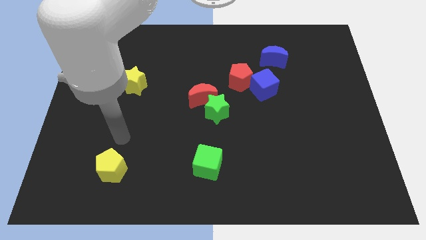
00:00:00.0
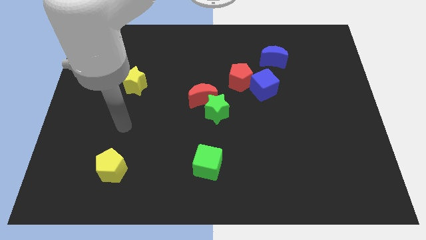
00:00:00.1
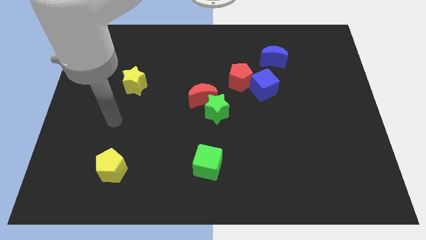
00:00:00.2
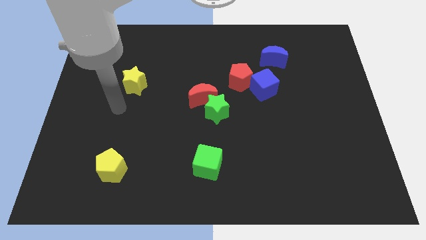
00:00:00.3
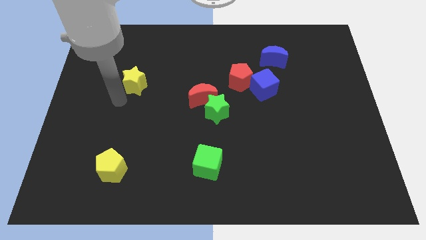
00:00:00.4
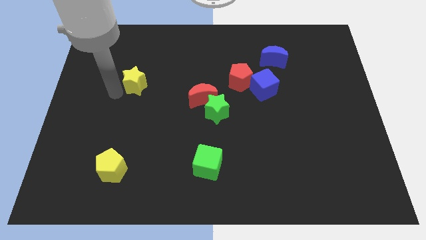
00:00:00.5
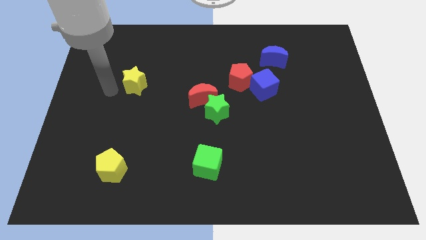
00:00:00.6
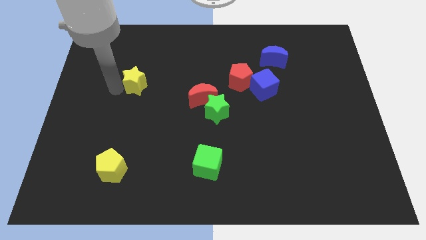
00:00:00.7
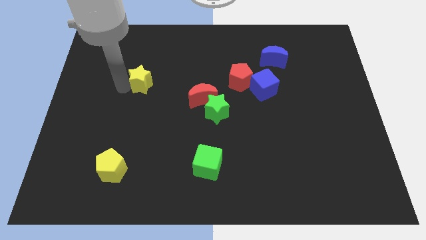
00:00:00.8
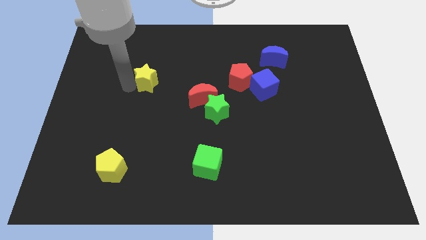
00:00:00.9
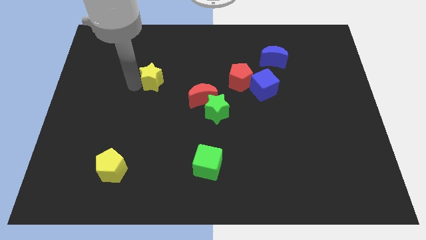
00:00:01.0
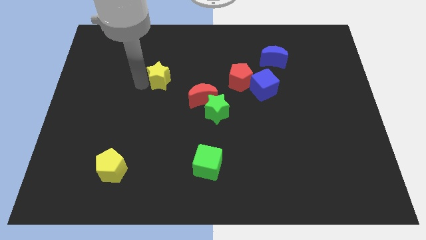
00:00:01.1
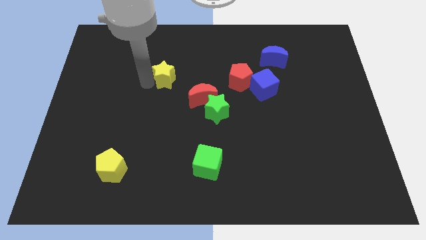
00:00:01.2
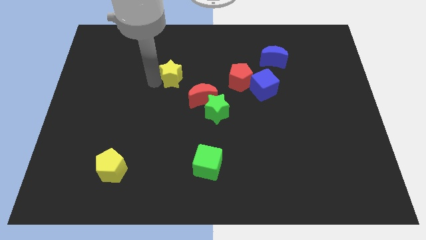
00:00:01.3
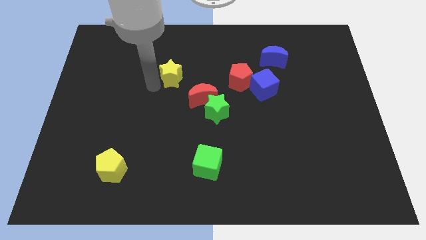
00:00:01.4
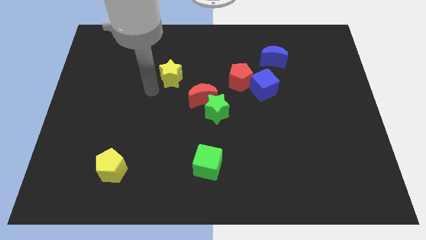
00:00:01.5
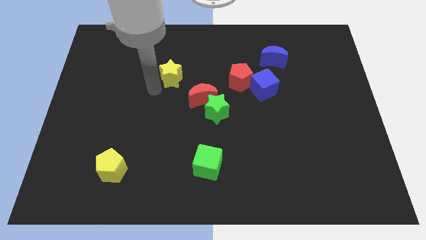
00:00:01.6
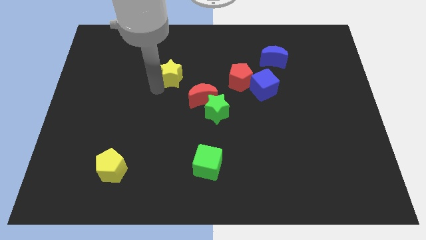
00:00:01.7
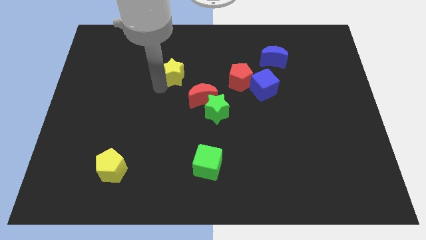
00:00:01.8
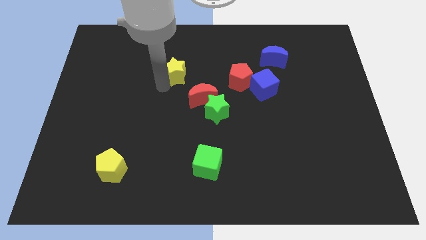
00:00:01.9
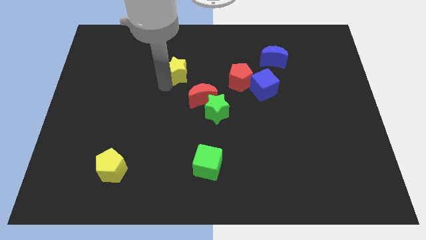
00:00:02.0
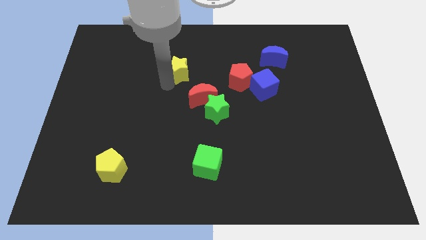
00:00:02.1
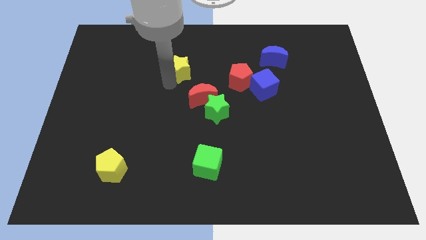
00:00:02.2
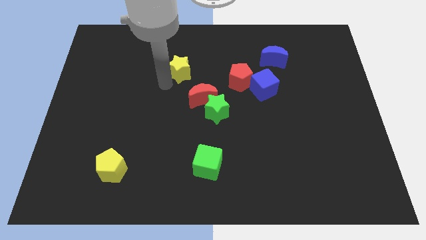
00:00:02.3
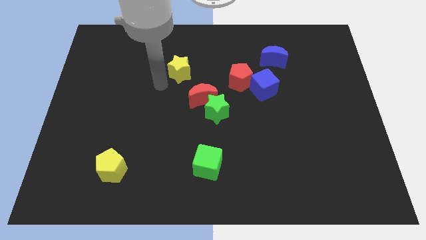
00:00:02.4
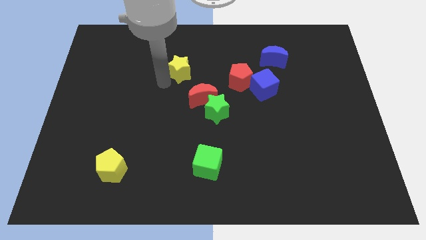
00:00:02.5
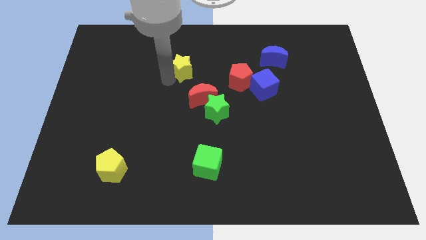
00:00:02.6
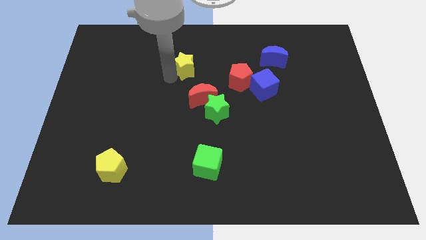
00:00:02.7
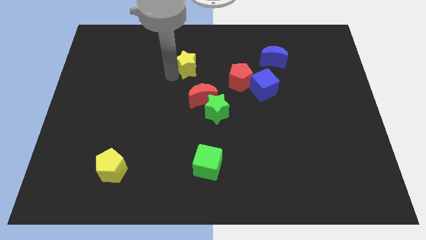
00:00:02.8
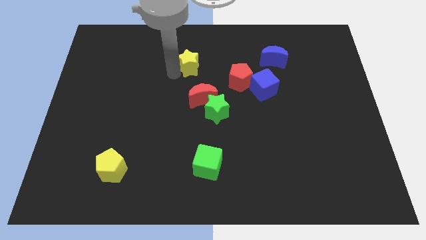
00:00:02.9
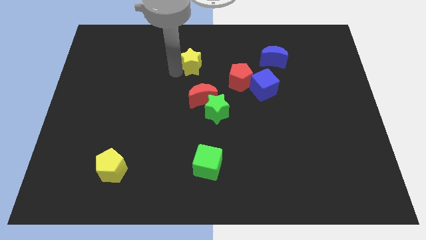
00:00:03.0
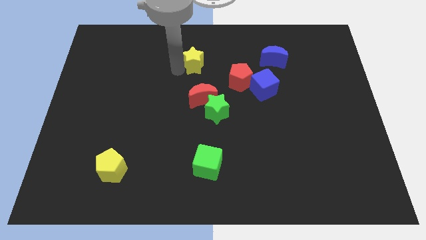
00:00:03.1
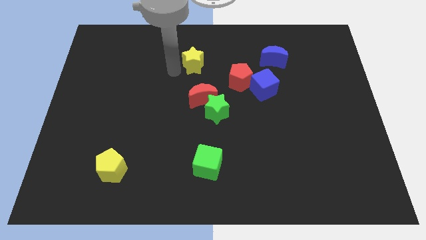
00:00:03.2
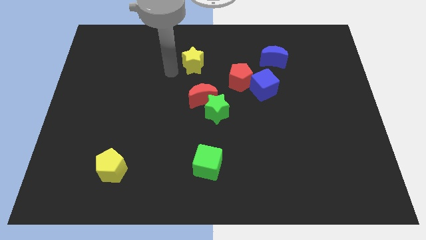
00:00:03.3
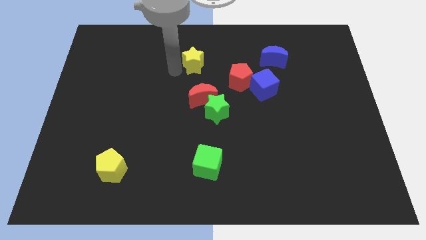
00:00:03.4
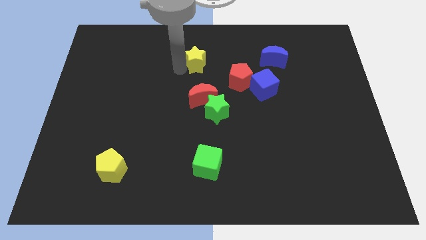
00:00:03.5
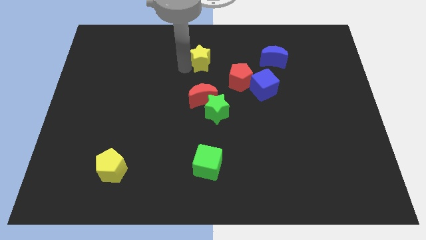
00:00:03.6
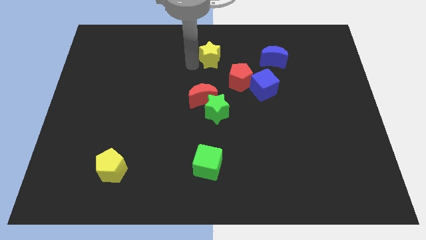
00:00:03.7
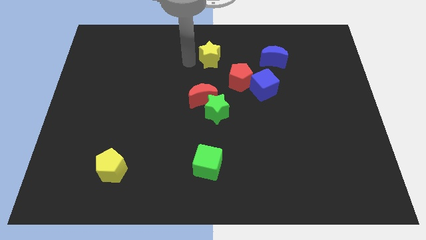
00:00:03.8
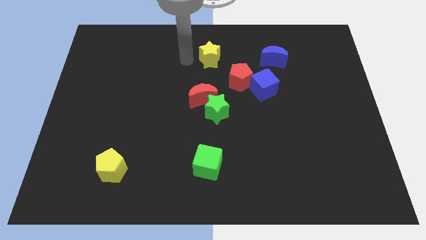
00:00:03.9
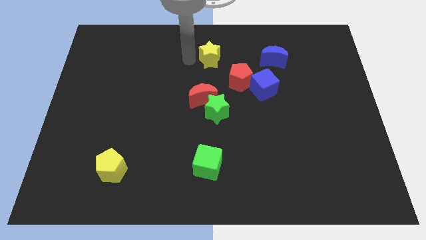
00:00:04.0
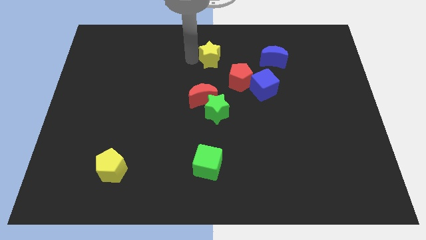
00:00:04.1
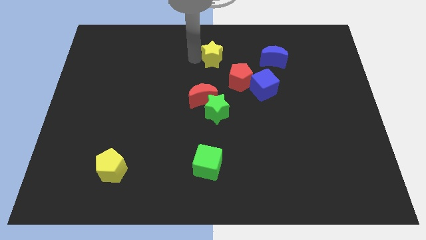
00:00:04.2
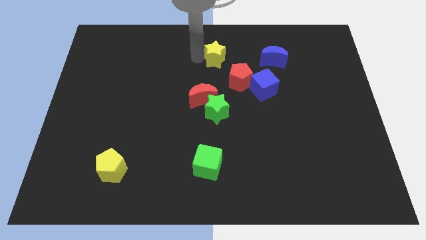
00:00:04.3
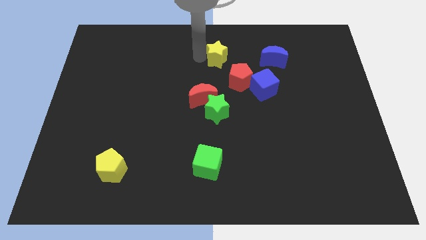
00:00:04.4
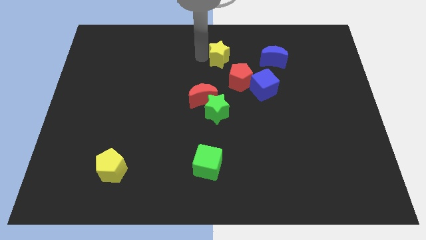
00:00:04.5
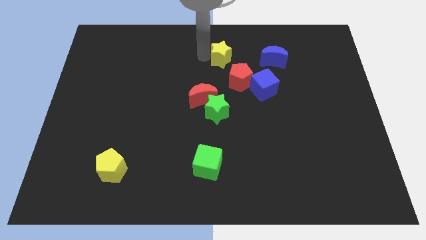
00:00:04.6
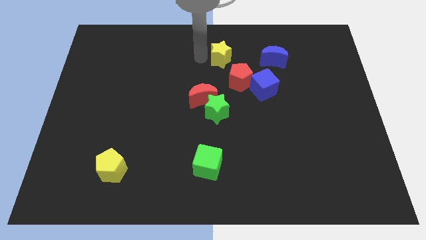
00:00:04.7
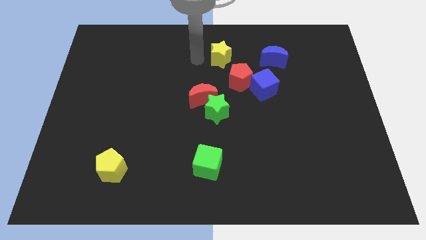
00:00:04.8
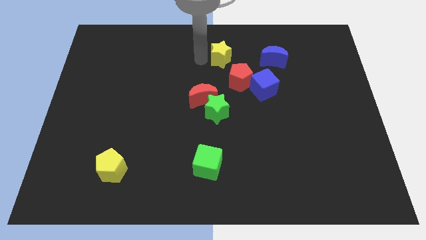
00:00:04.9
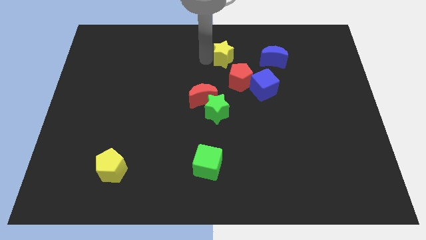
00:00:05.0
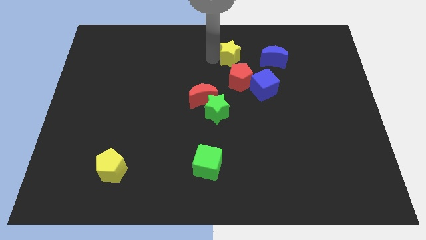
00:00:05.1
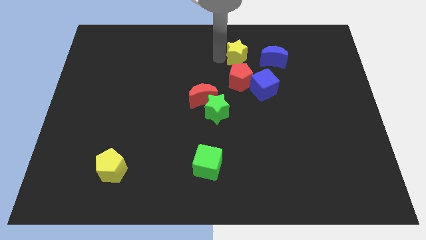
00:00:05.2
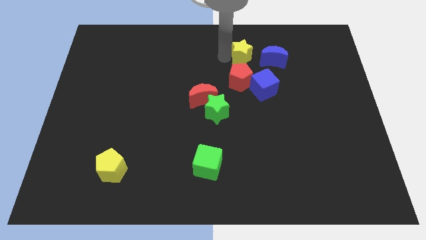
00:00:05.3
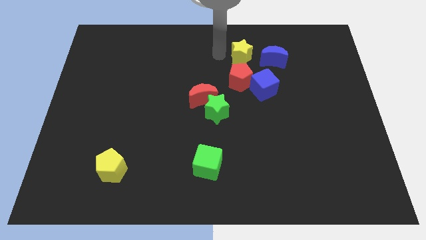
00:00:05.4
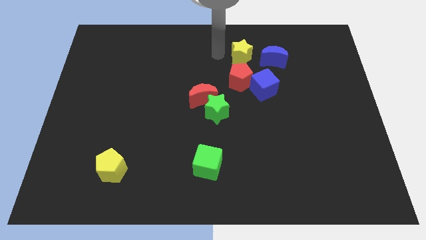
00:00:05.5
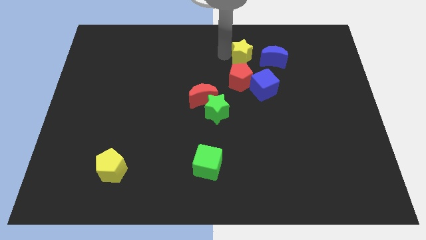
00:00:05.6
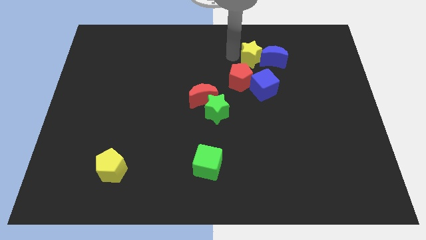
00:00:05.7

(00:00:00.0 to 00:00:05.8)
push the yellow star next to the blue moon

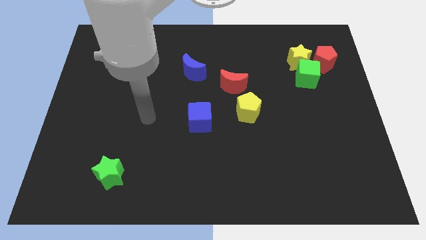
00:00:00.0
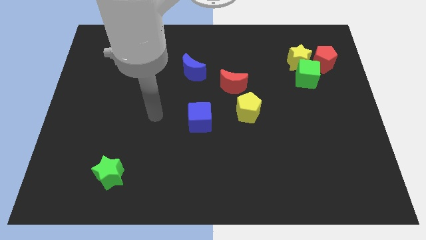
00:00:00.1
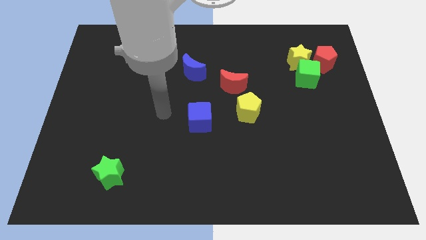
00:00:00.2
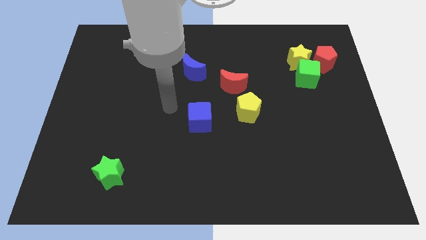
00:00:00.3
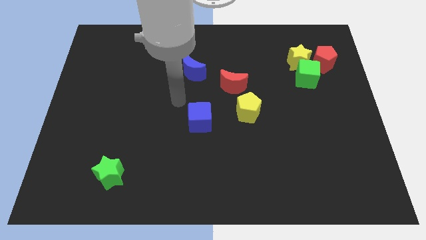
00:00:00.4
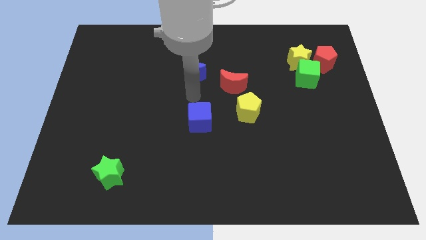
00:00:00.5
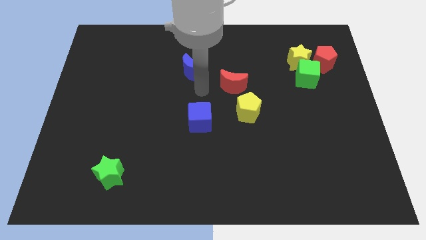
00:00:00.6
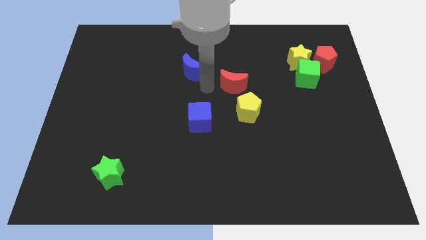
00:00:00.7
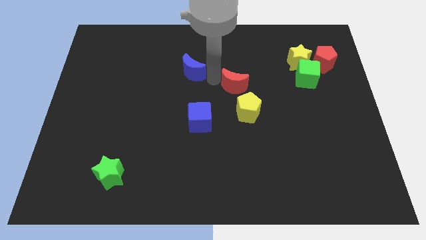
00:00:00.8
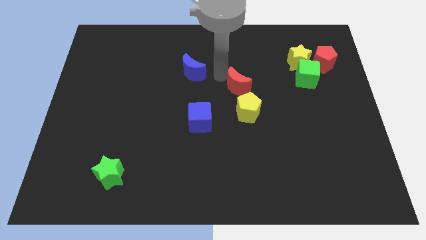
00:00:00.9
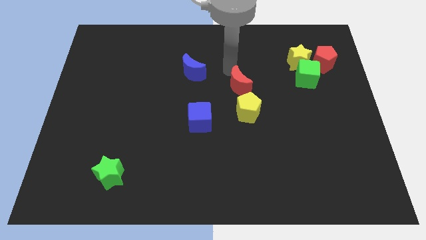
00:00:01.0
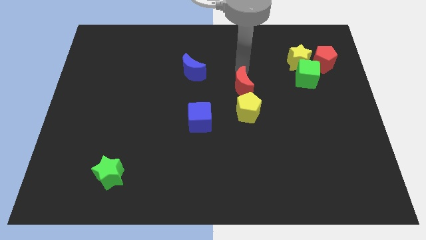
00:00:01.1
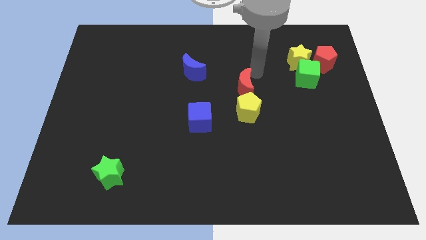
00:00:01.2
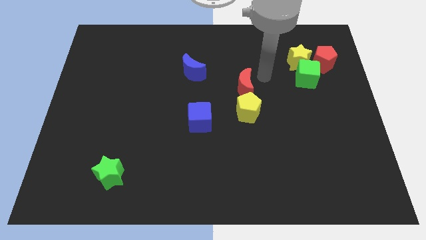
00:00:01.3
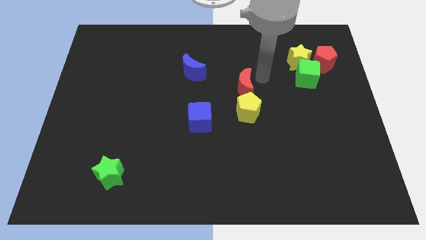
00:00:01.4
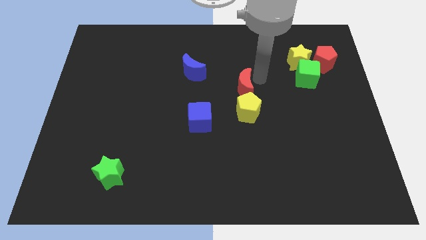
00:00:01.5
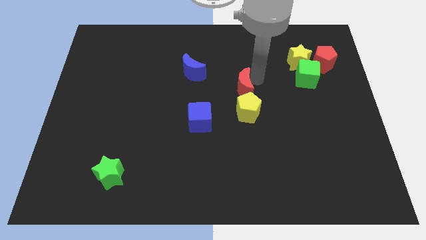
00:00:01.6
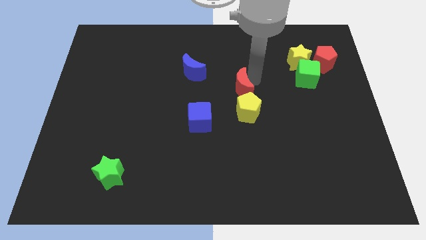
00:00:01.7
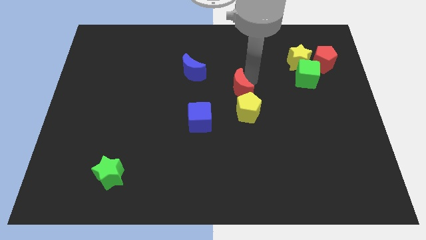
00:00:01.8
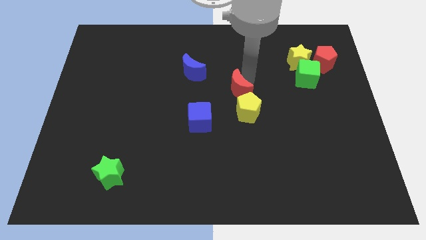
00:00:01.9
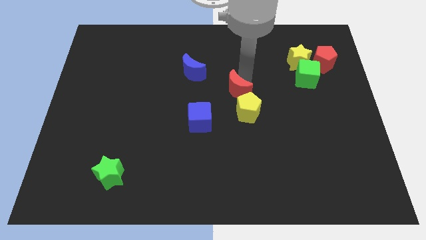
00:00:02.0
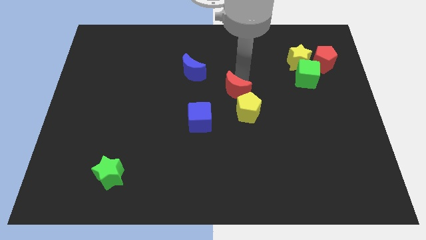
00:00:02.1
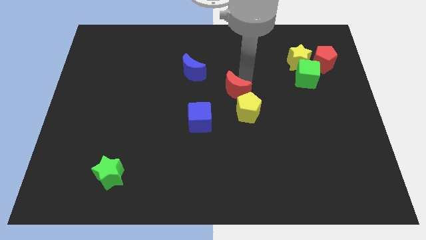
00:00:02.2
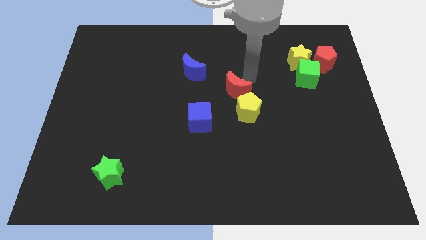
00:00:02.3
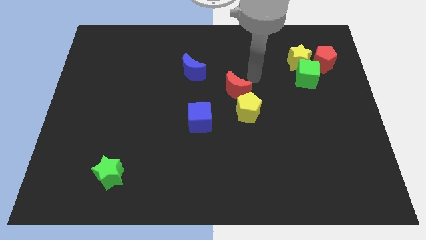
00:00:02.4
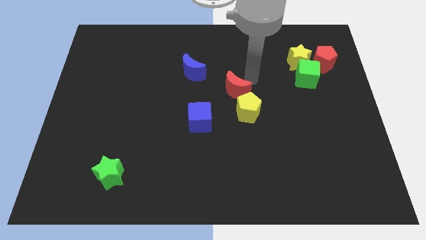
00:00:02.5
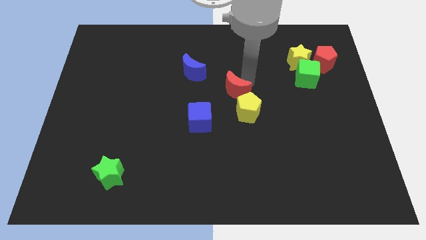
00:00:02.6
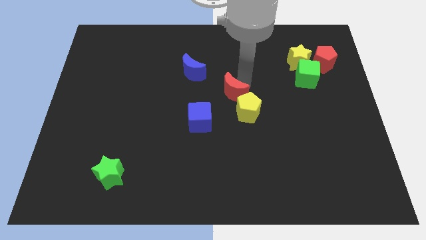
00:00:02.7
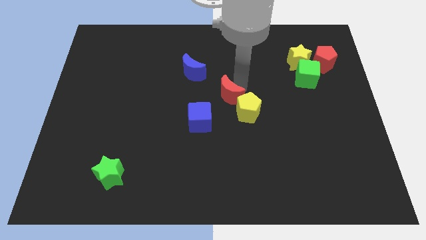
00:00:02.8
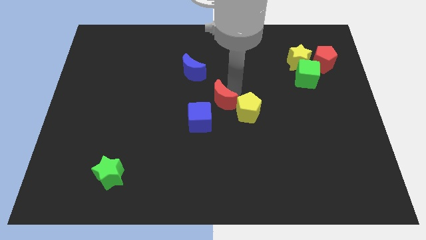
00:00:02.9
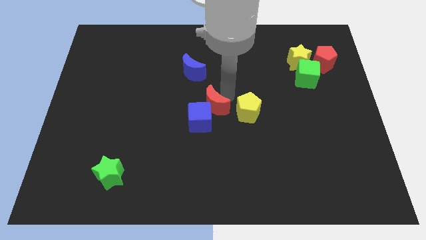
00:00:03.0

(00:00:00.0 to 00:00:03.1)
put the red moon next to the blue cube
